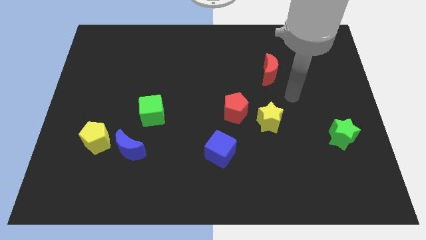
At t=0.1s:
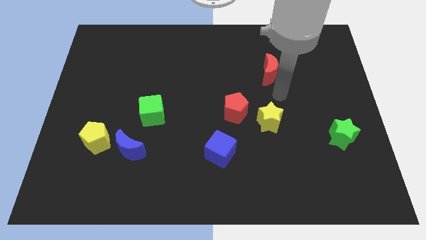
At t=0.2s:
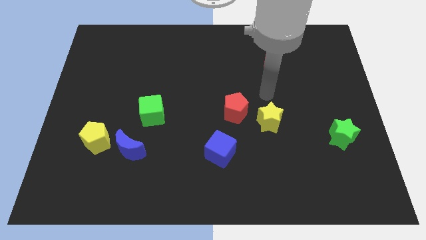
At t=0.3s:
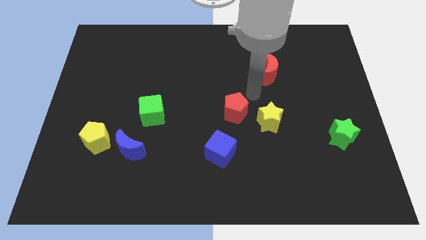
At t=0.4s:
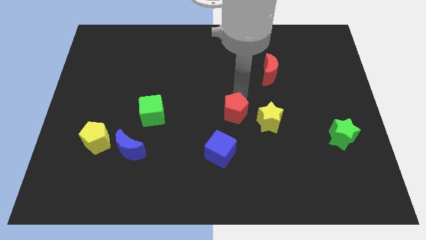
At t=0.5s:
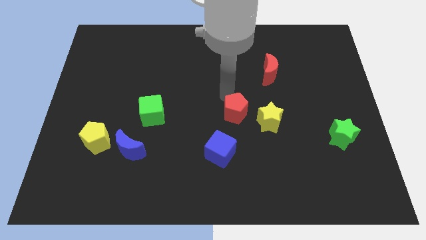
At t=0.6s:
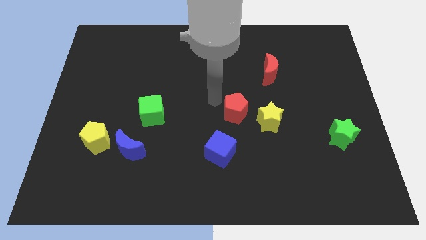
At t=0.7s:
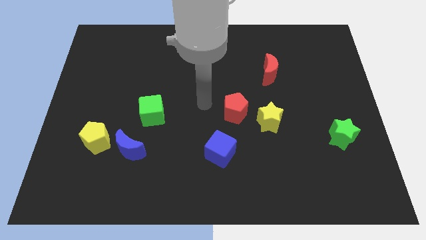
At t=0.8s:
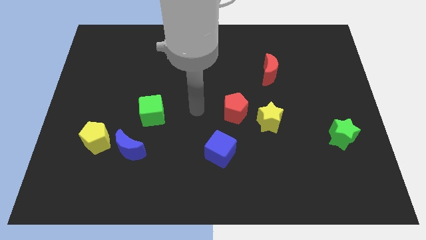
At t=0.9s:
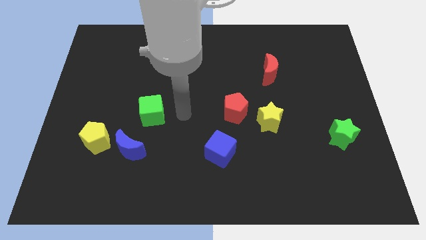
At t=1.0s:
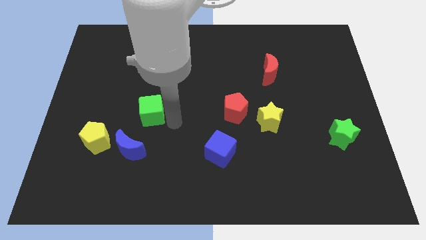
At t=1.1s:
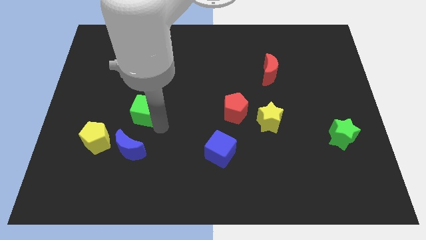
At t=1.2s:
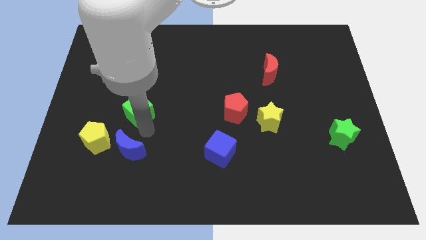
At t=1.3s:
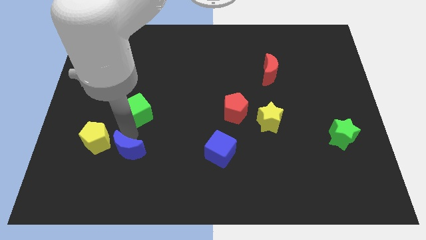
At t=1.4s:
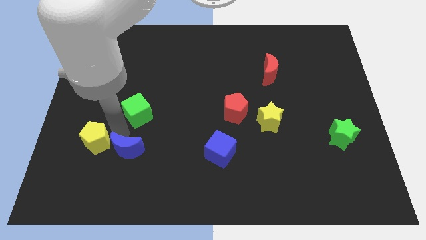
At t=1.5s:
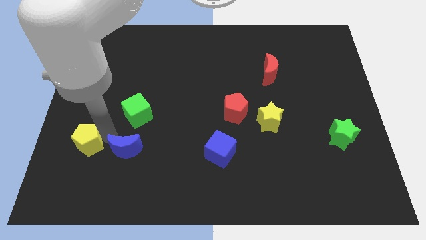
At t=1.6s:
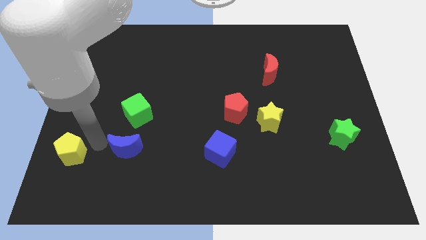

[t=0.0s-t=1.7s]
separate the blue moon from the yellow pentagon

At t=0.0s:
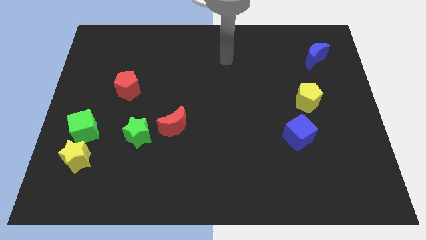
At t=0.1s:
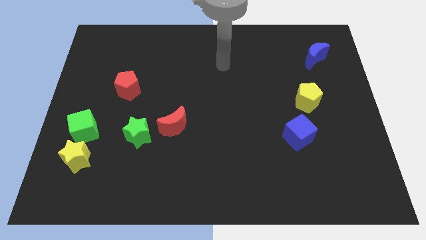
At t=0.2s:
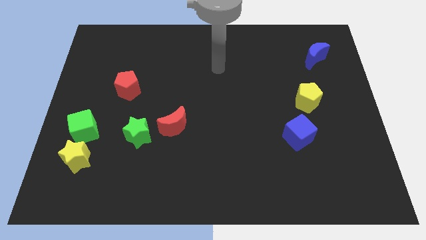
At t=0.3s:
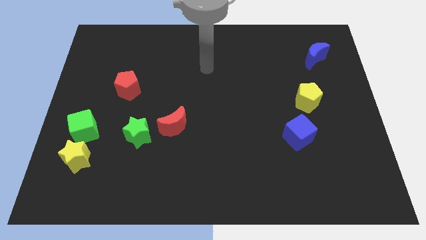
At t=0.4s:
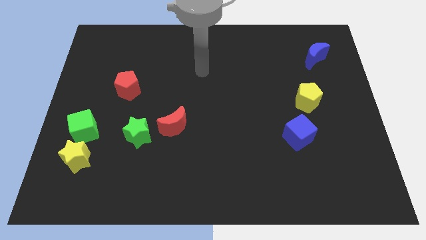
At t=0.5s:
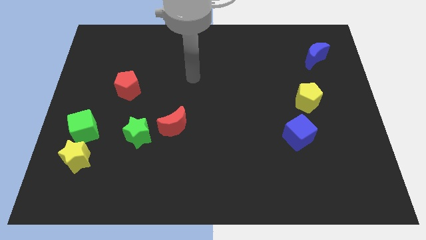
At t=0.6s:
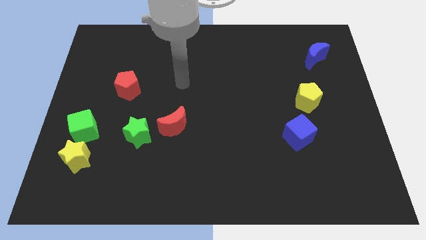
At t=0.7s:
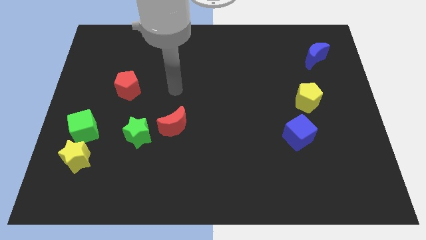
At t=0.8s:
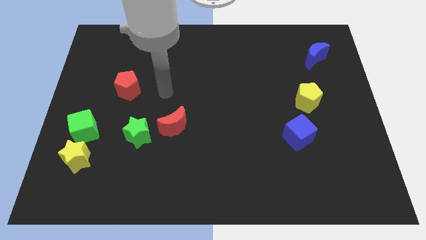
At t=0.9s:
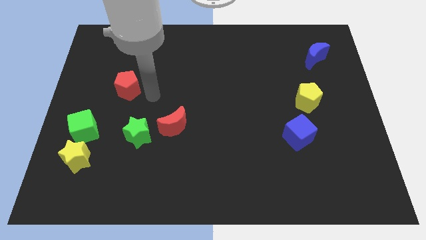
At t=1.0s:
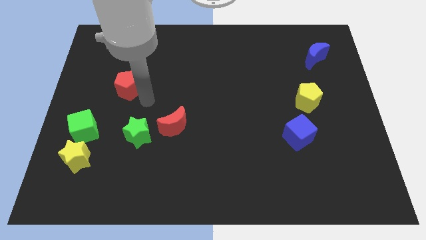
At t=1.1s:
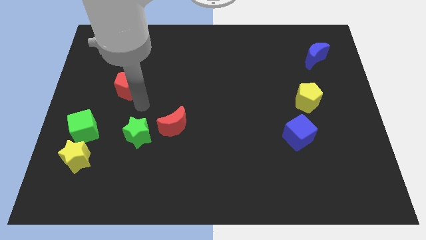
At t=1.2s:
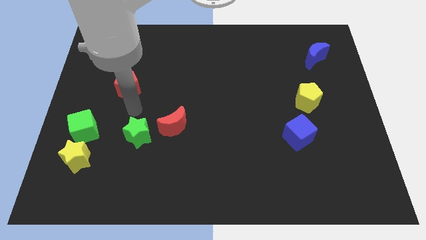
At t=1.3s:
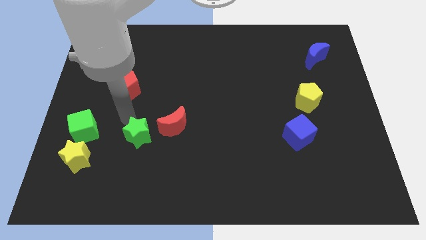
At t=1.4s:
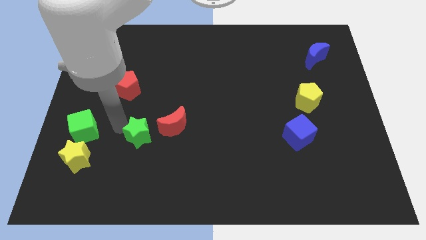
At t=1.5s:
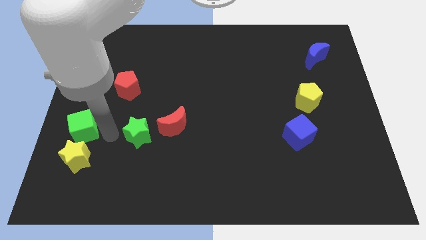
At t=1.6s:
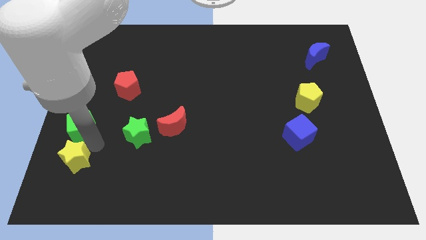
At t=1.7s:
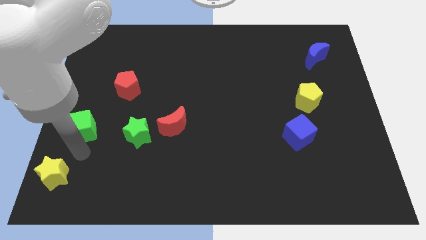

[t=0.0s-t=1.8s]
separate the green cube from the yellow star

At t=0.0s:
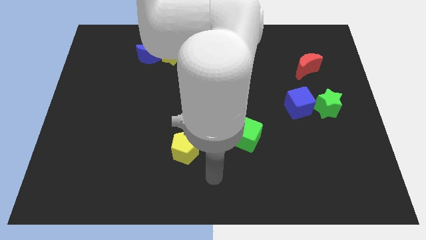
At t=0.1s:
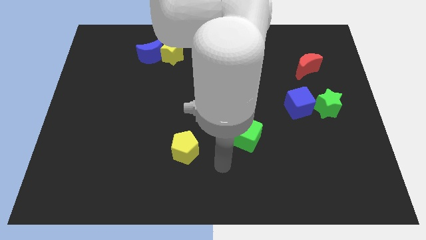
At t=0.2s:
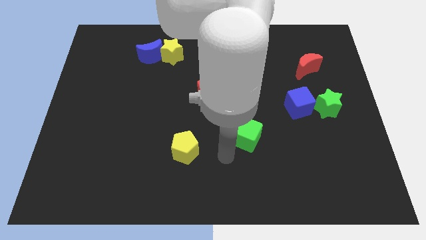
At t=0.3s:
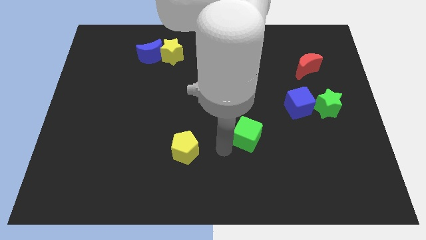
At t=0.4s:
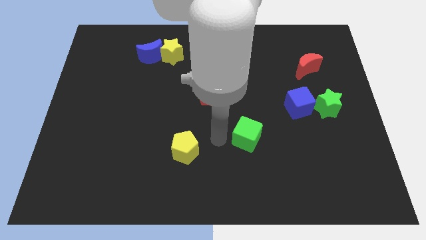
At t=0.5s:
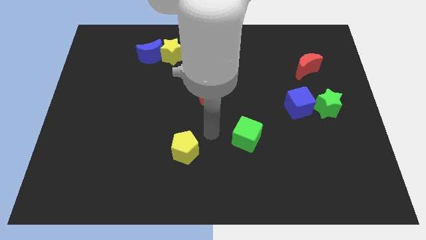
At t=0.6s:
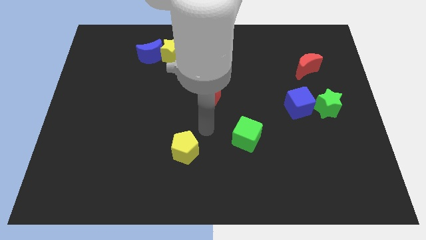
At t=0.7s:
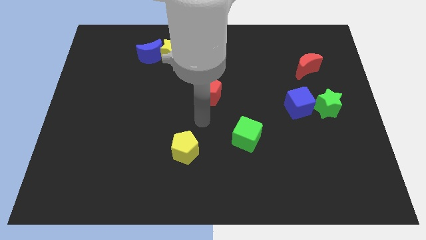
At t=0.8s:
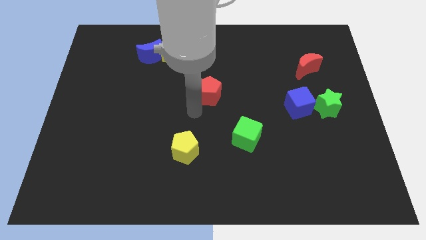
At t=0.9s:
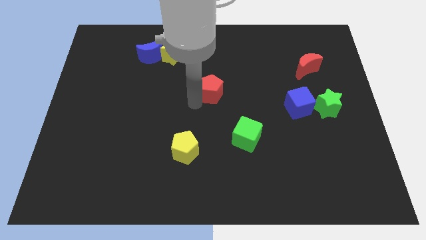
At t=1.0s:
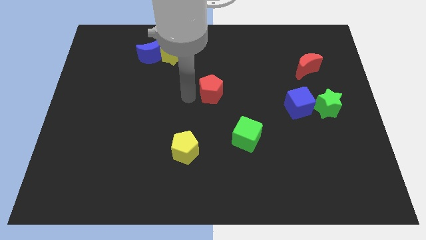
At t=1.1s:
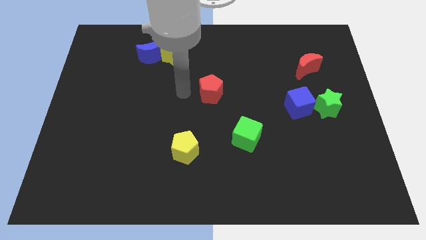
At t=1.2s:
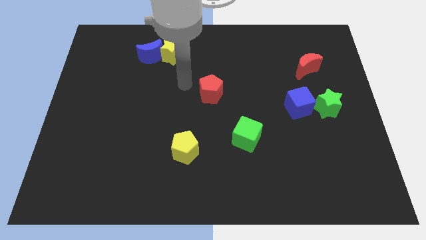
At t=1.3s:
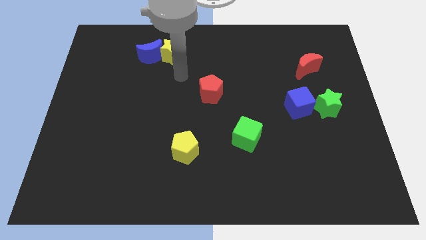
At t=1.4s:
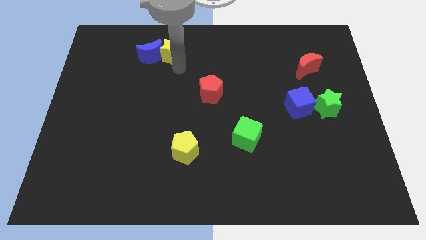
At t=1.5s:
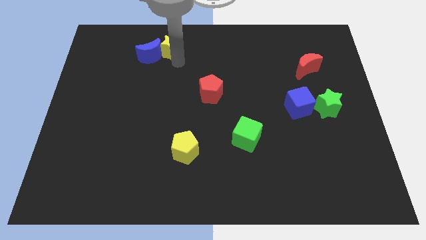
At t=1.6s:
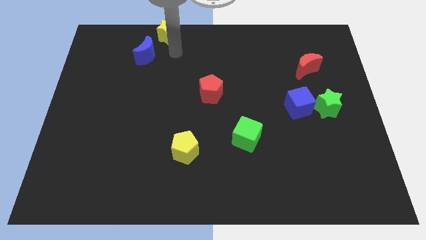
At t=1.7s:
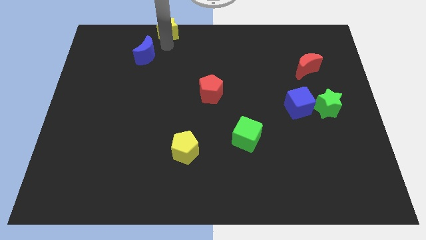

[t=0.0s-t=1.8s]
separate the blue moon from the yellow star

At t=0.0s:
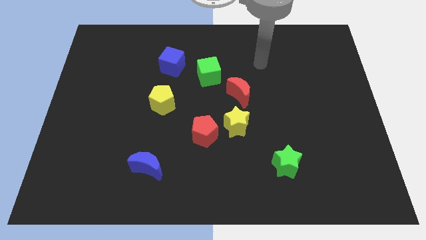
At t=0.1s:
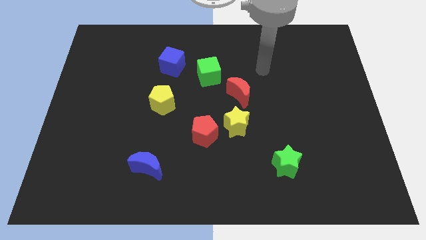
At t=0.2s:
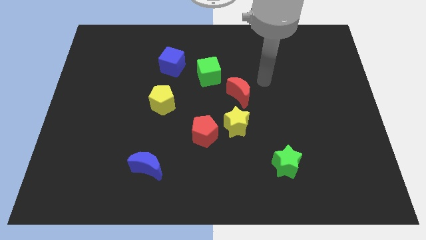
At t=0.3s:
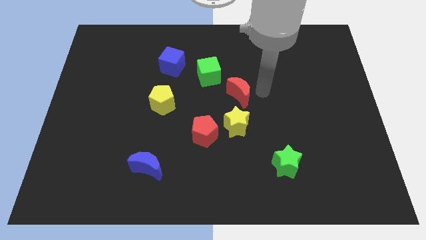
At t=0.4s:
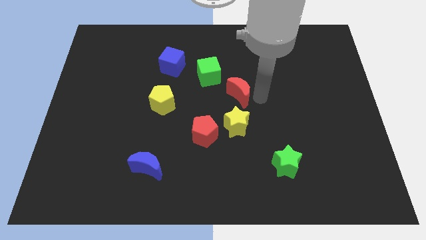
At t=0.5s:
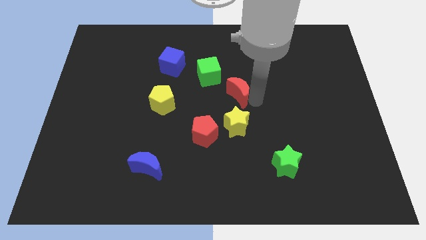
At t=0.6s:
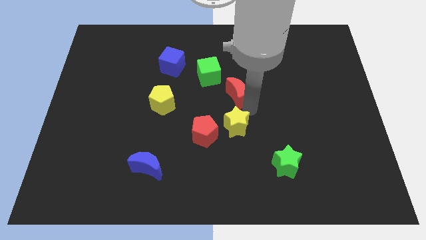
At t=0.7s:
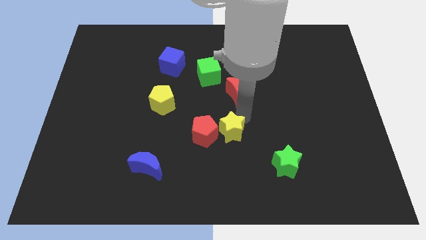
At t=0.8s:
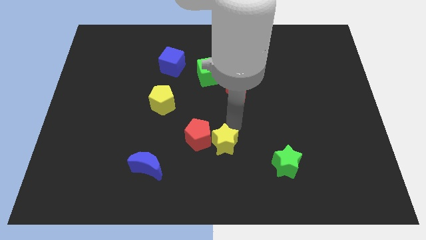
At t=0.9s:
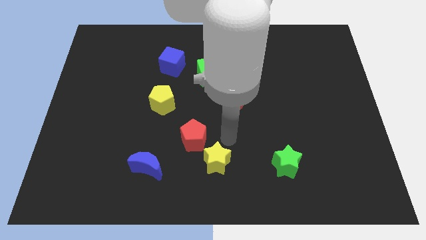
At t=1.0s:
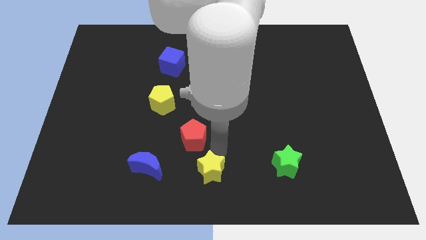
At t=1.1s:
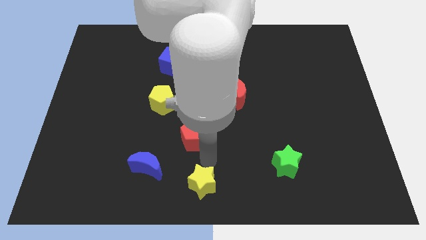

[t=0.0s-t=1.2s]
pull the red pentagon apart from the yellow star

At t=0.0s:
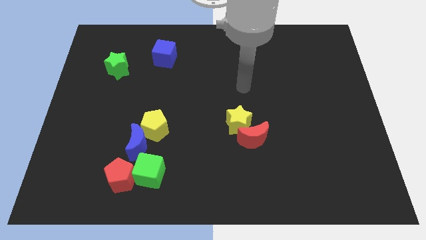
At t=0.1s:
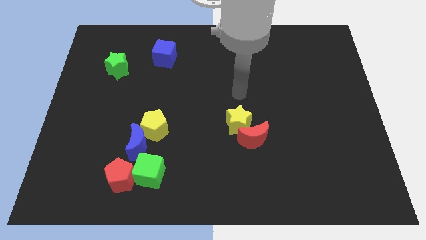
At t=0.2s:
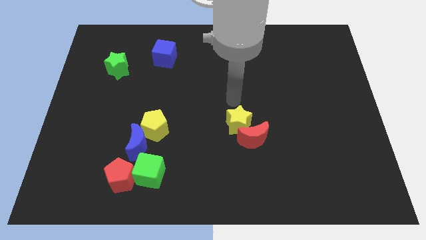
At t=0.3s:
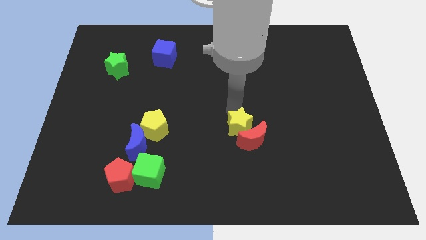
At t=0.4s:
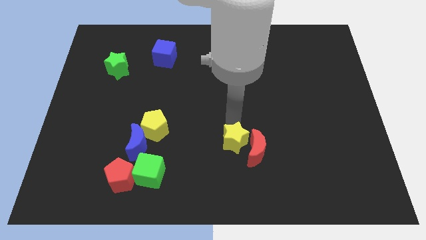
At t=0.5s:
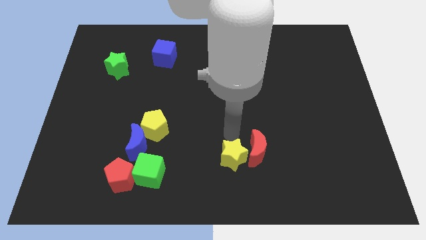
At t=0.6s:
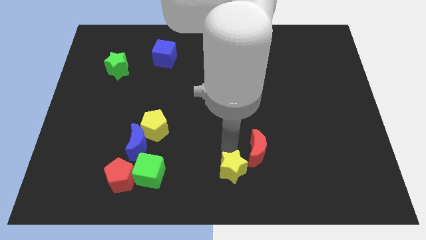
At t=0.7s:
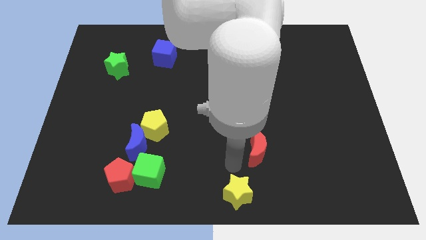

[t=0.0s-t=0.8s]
move the red moon away from the yellow star

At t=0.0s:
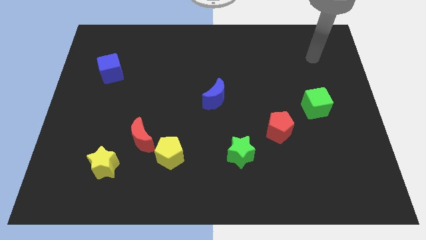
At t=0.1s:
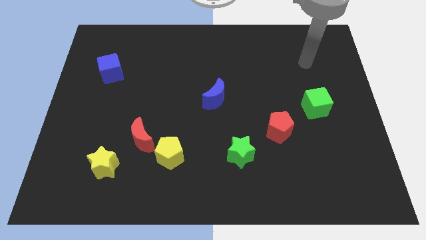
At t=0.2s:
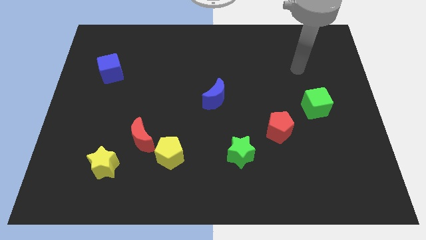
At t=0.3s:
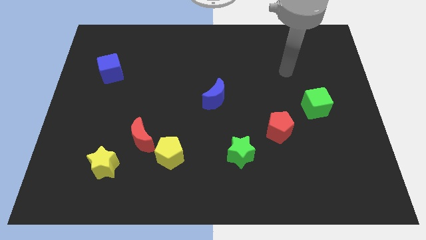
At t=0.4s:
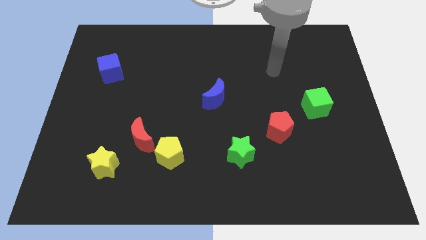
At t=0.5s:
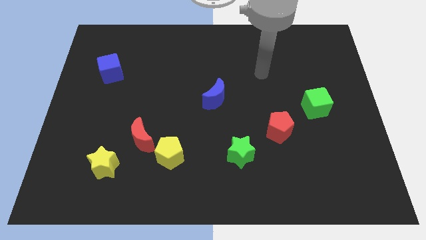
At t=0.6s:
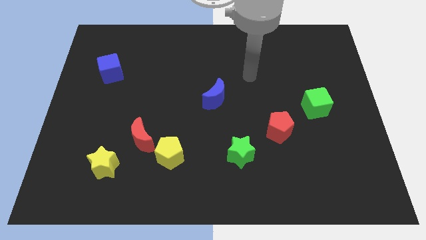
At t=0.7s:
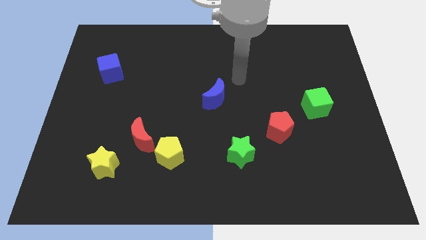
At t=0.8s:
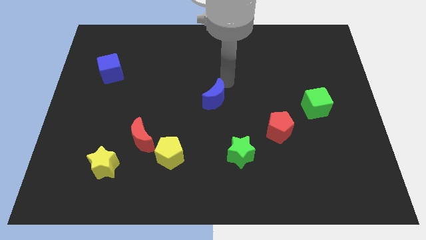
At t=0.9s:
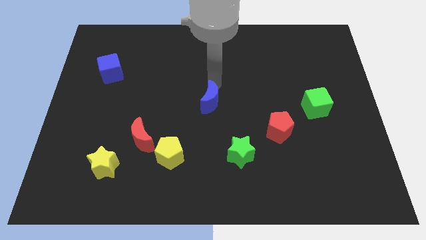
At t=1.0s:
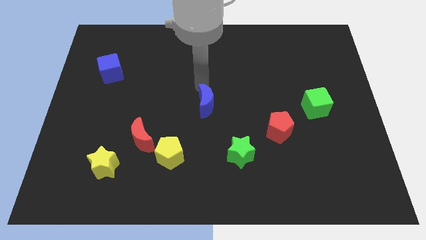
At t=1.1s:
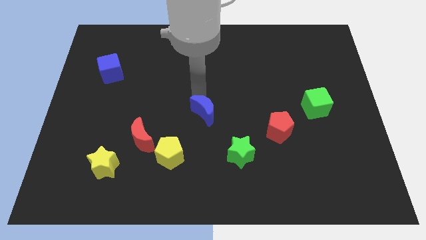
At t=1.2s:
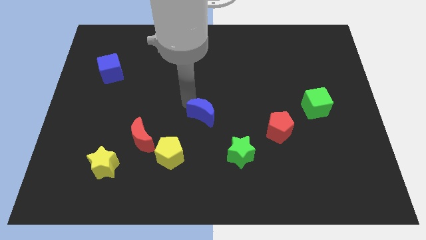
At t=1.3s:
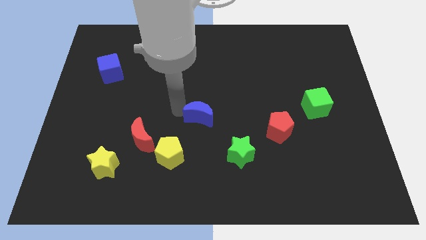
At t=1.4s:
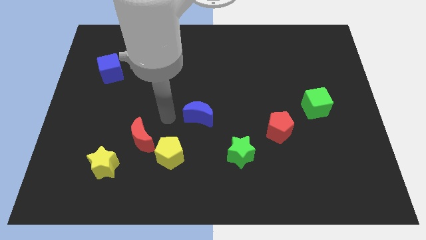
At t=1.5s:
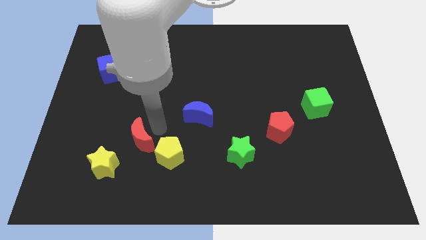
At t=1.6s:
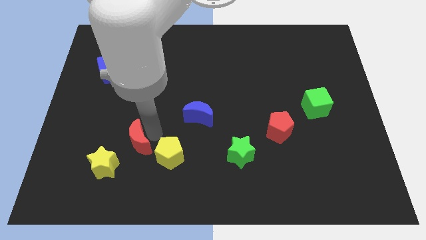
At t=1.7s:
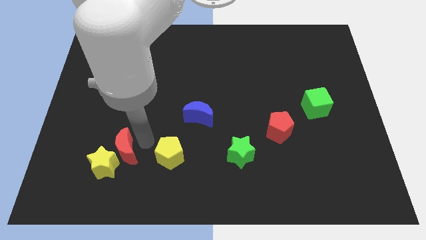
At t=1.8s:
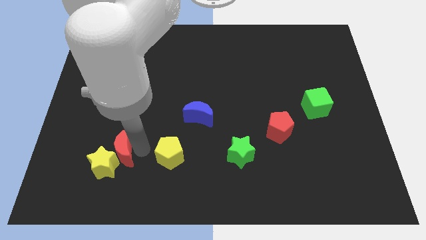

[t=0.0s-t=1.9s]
separate the yellow pentagon from the red moon

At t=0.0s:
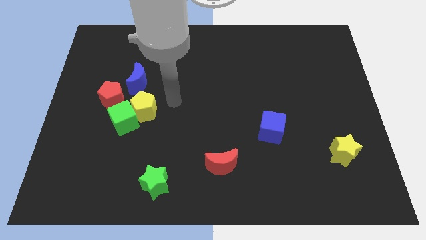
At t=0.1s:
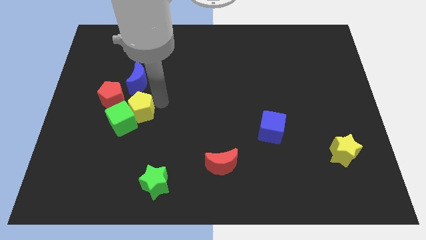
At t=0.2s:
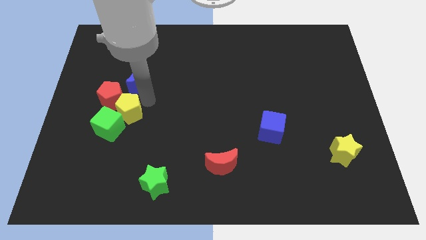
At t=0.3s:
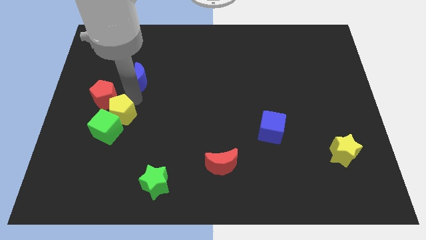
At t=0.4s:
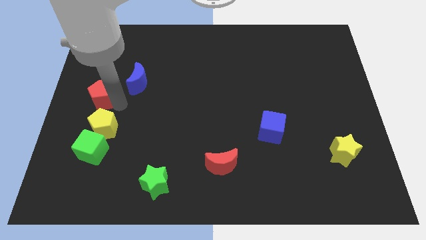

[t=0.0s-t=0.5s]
pull the green cube apart from the yellow pentagon and red pentagon
